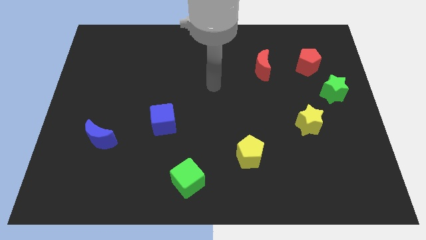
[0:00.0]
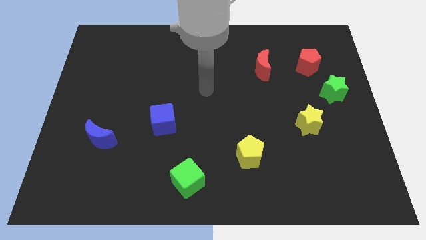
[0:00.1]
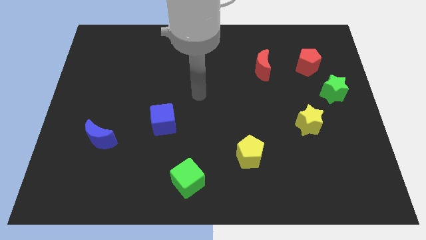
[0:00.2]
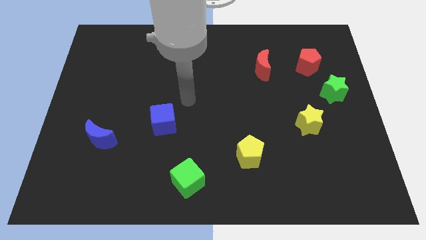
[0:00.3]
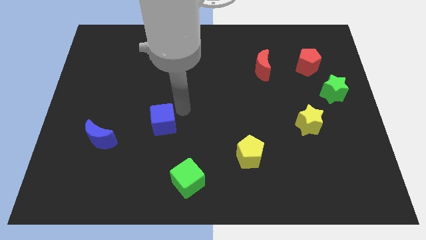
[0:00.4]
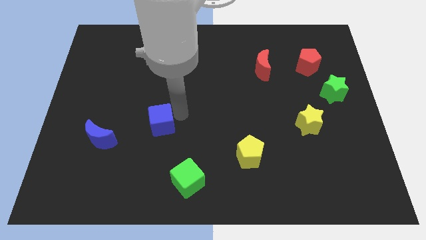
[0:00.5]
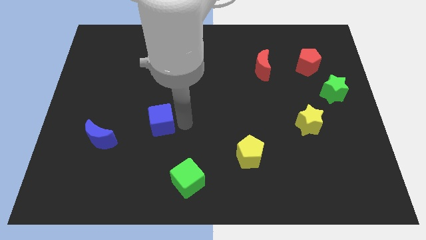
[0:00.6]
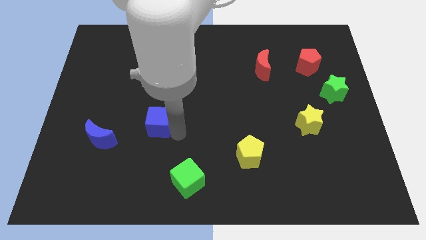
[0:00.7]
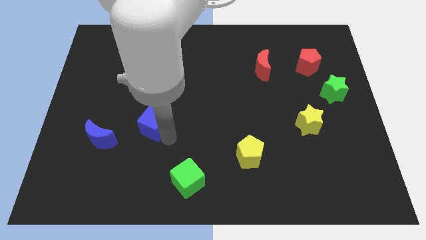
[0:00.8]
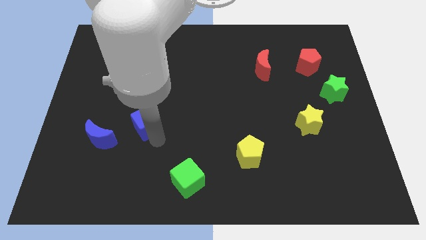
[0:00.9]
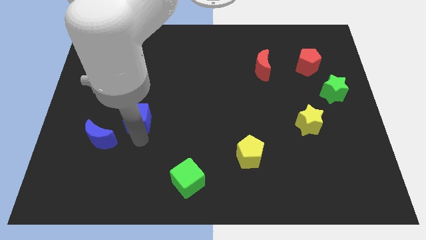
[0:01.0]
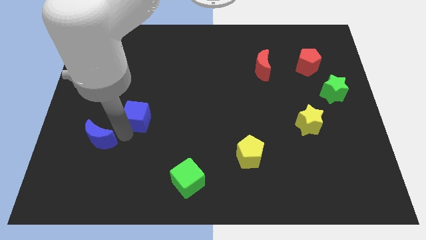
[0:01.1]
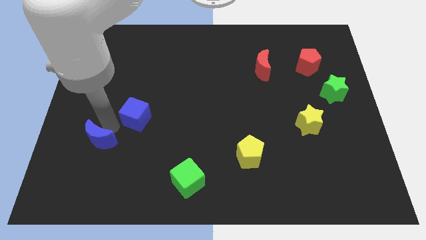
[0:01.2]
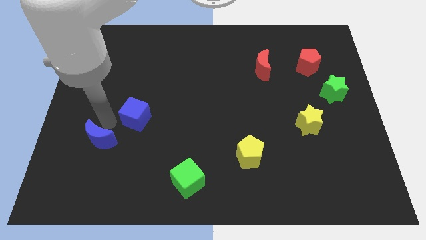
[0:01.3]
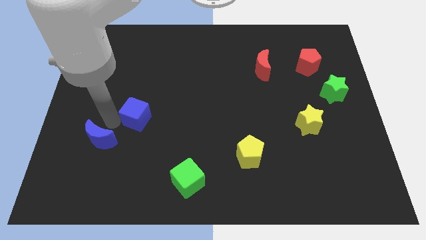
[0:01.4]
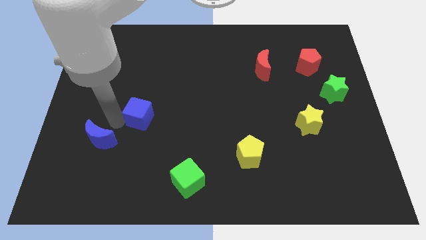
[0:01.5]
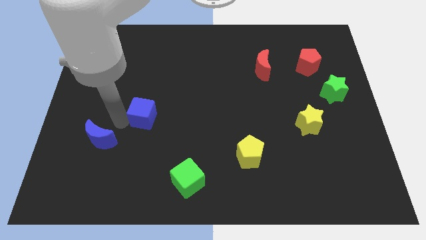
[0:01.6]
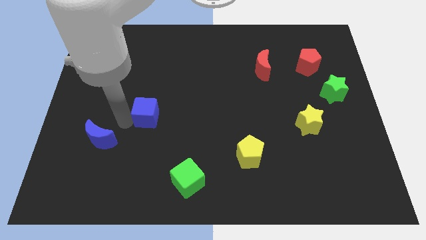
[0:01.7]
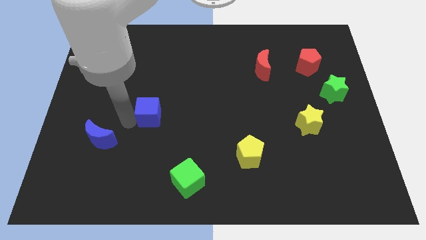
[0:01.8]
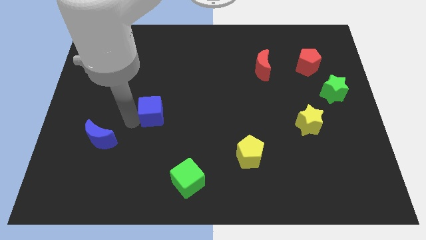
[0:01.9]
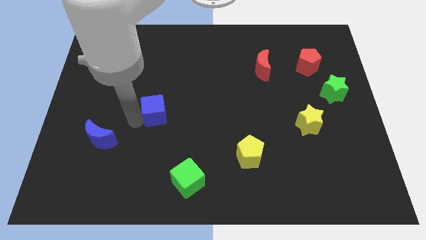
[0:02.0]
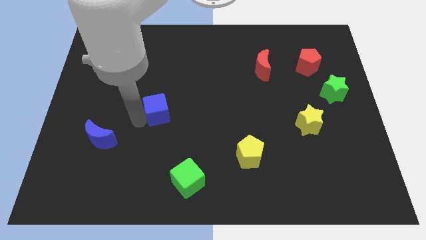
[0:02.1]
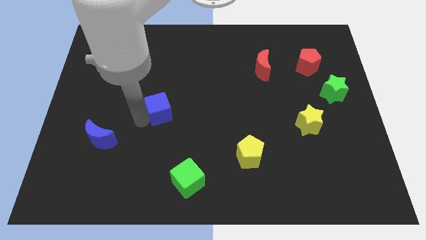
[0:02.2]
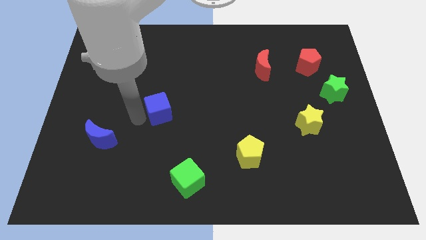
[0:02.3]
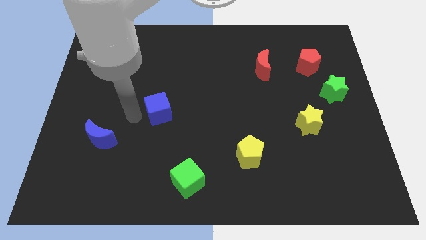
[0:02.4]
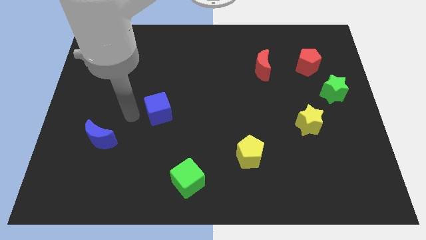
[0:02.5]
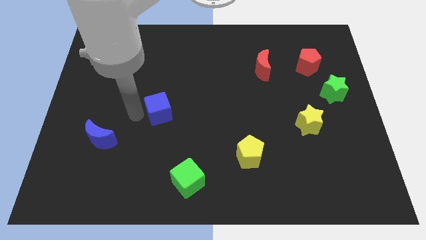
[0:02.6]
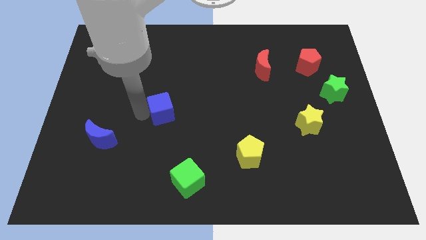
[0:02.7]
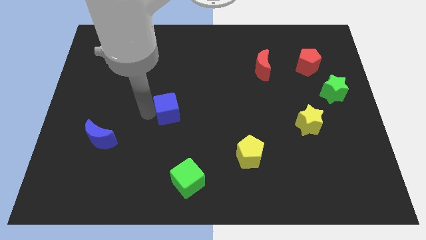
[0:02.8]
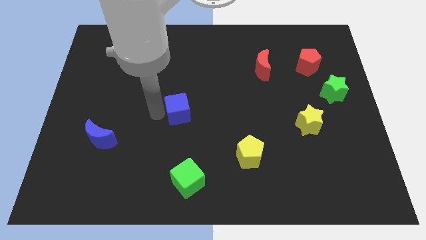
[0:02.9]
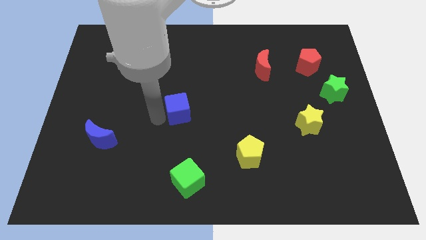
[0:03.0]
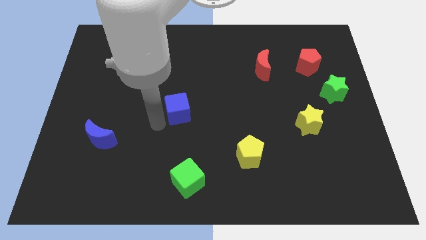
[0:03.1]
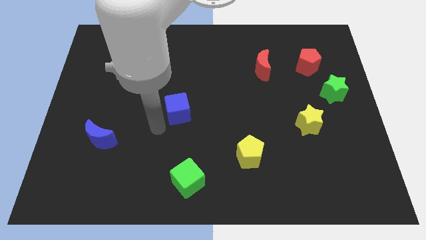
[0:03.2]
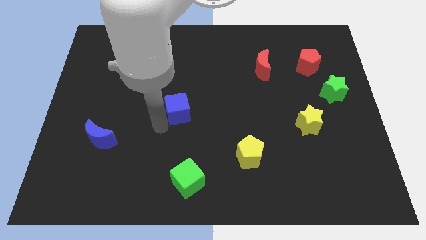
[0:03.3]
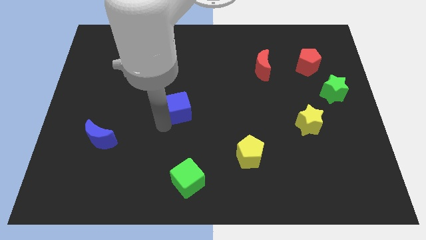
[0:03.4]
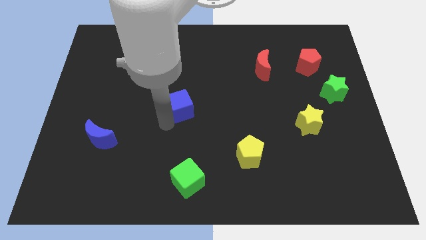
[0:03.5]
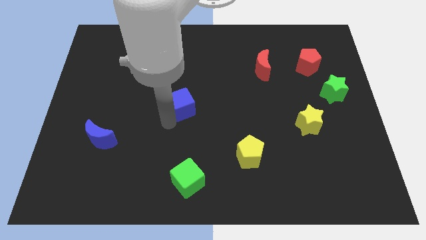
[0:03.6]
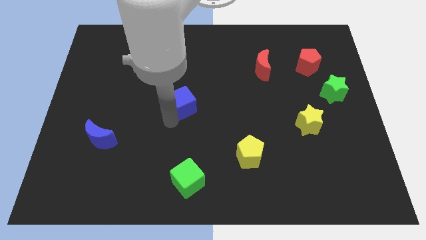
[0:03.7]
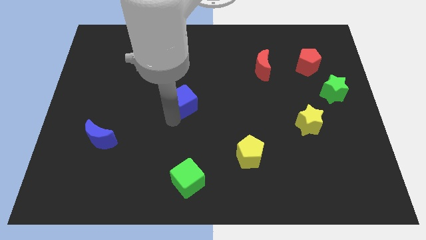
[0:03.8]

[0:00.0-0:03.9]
slide the blue cube a bit up and to the right diagonally

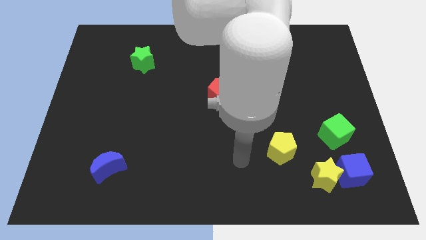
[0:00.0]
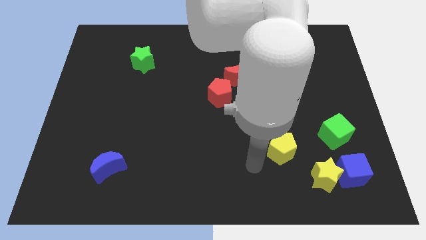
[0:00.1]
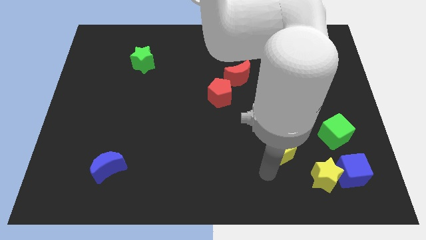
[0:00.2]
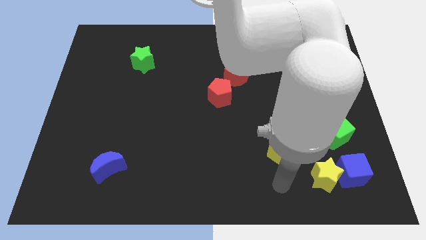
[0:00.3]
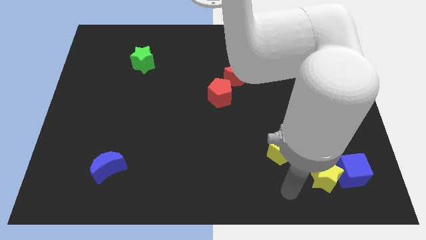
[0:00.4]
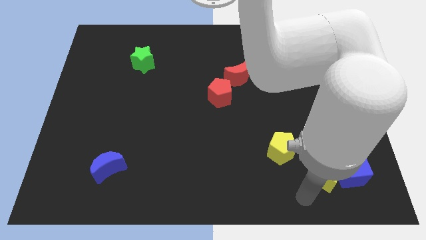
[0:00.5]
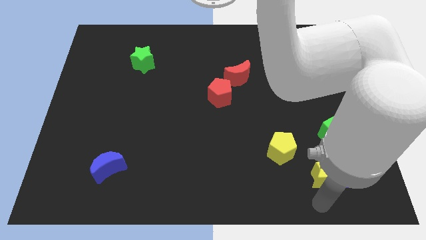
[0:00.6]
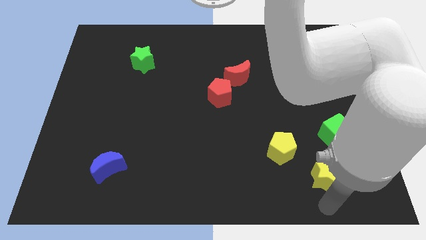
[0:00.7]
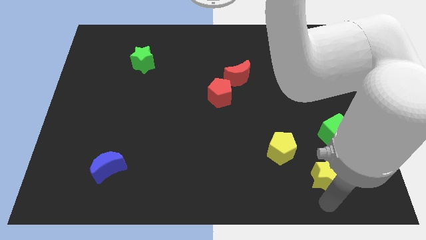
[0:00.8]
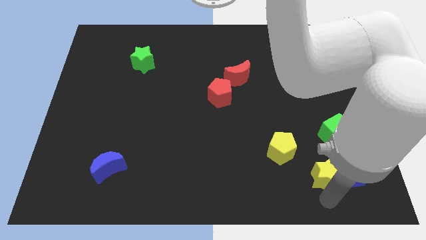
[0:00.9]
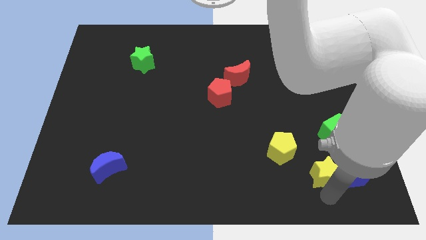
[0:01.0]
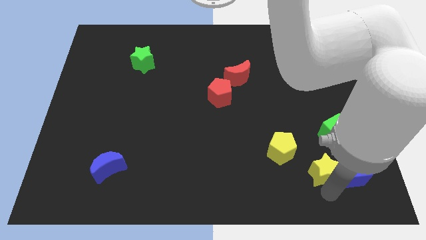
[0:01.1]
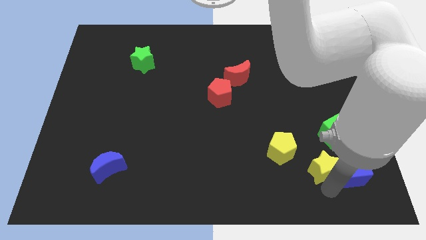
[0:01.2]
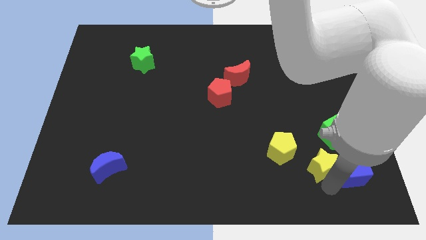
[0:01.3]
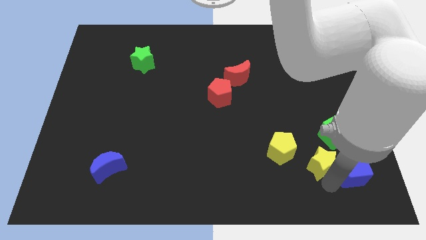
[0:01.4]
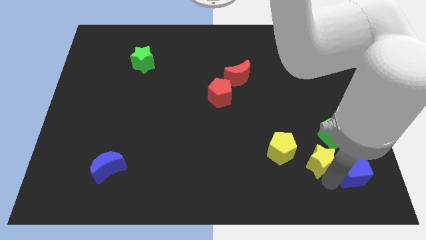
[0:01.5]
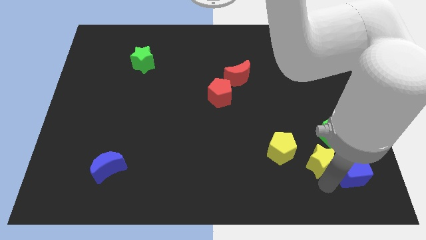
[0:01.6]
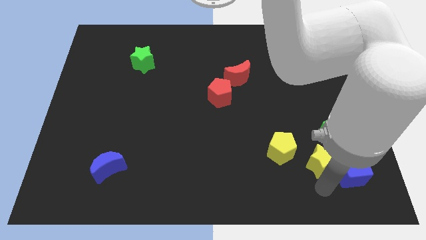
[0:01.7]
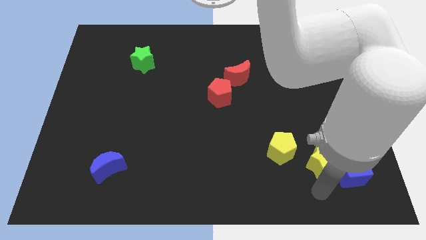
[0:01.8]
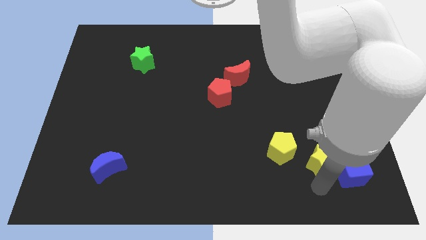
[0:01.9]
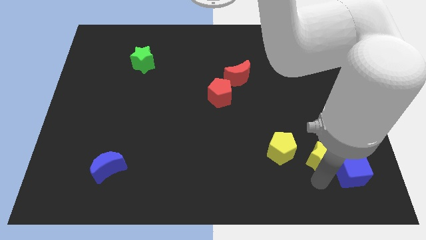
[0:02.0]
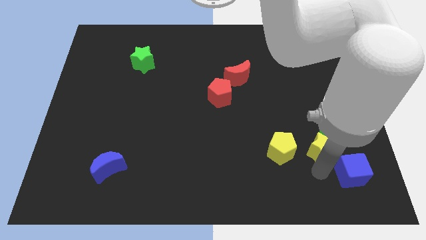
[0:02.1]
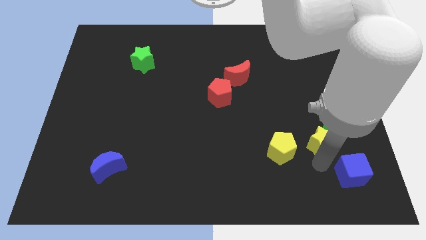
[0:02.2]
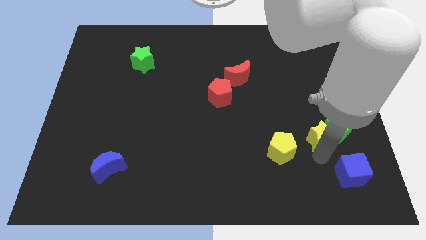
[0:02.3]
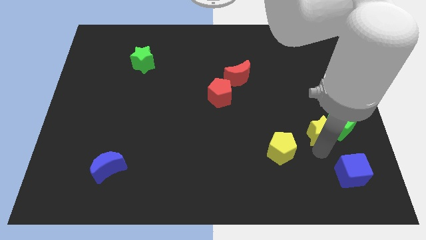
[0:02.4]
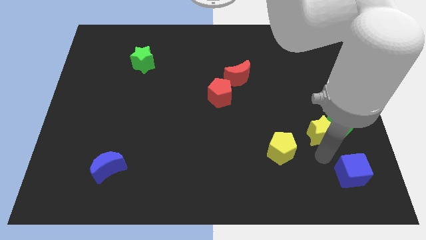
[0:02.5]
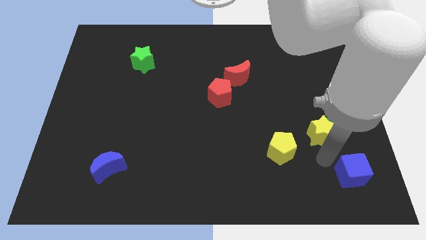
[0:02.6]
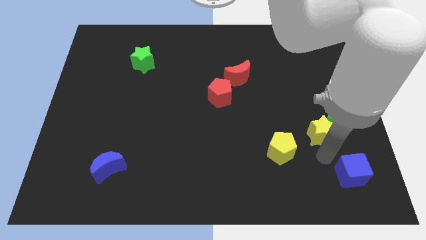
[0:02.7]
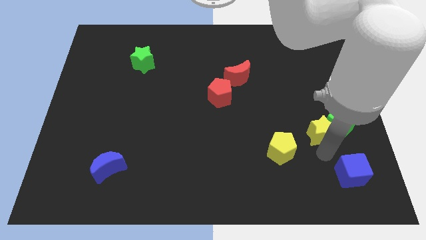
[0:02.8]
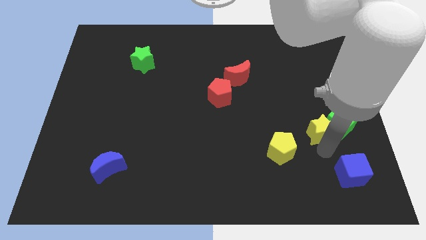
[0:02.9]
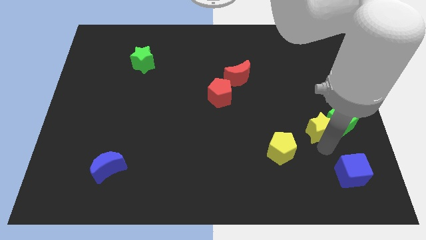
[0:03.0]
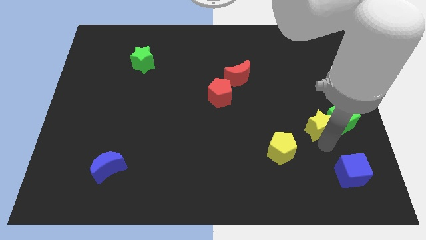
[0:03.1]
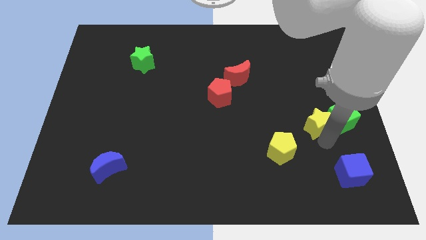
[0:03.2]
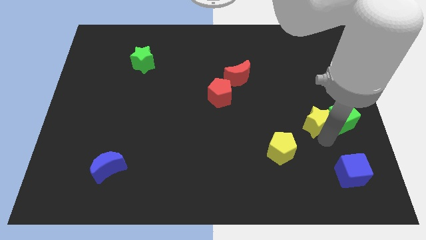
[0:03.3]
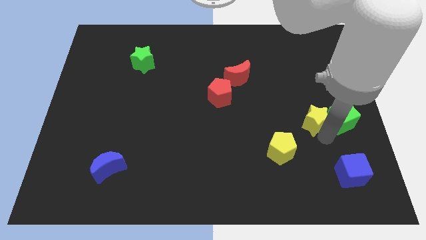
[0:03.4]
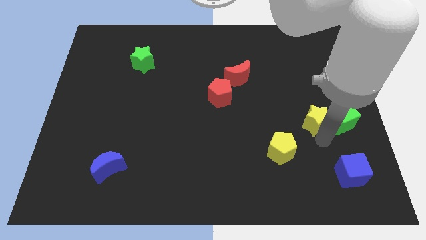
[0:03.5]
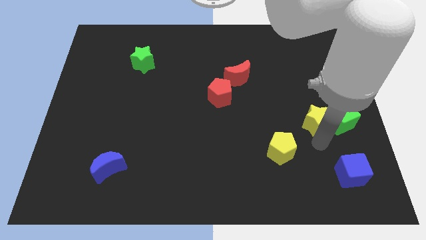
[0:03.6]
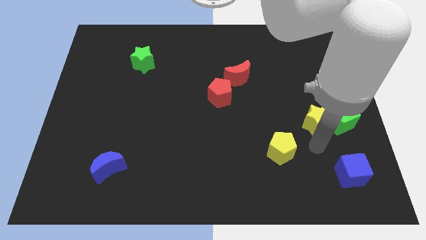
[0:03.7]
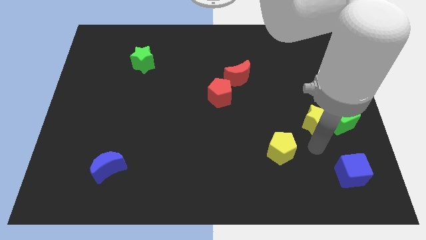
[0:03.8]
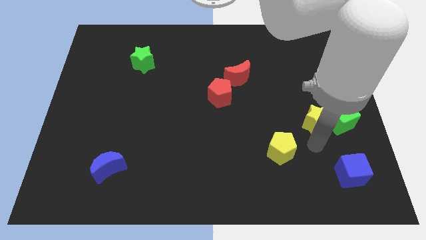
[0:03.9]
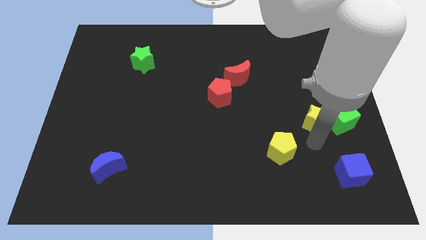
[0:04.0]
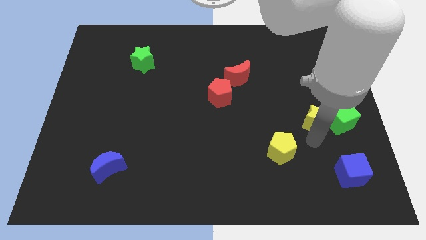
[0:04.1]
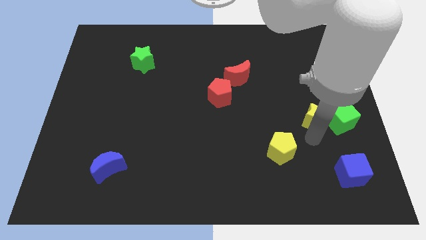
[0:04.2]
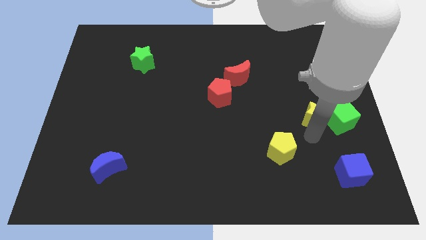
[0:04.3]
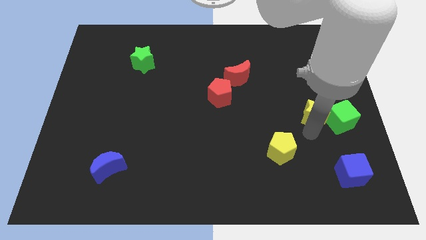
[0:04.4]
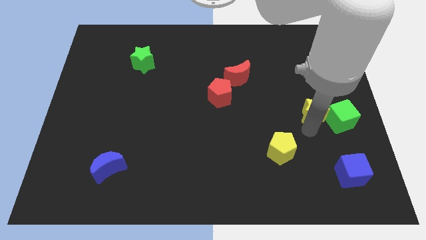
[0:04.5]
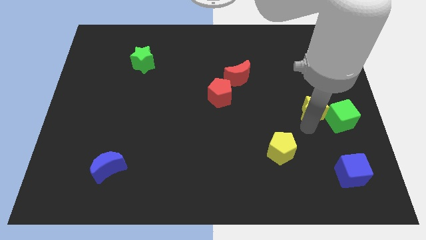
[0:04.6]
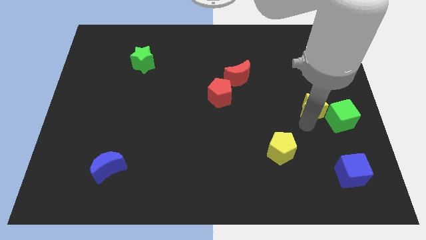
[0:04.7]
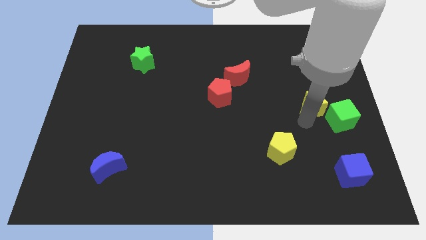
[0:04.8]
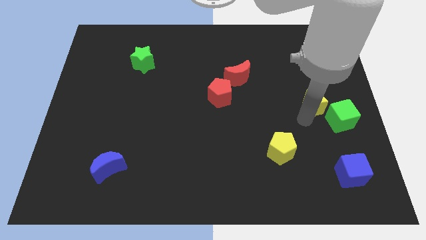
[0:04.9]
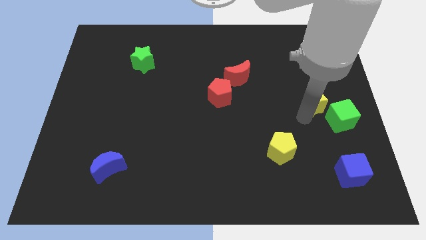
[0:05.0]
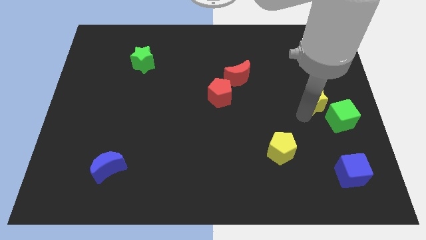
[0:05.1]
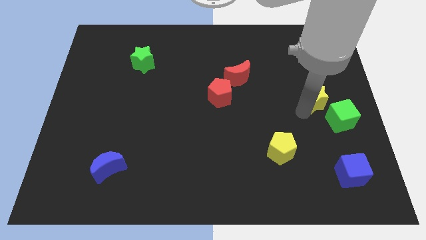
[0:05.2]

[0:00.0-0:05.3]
move the yellow star up
